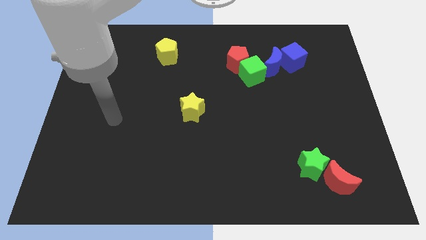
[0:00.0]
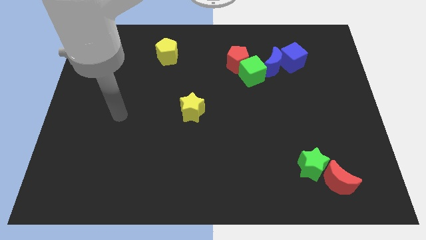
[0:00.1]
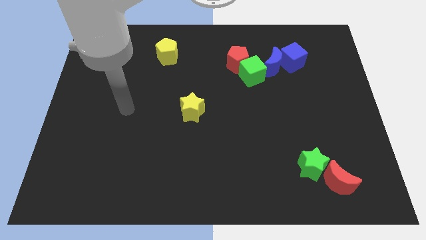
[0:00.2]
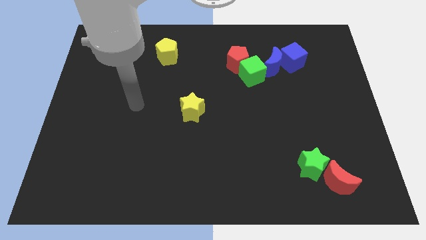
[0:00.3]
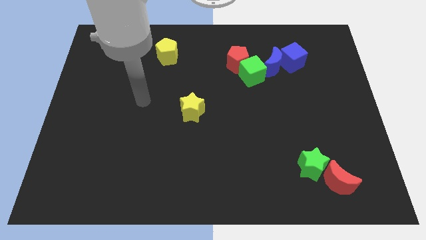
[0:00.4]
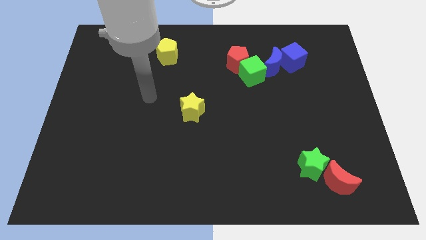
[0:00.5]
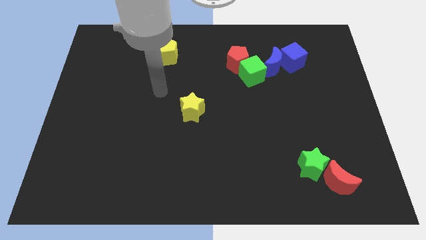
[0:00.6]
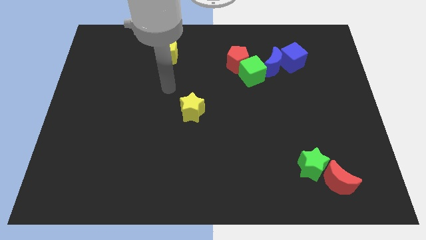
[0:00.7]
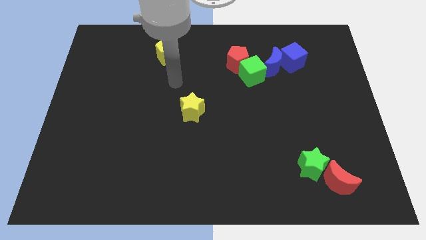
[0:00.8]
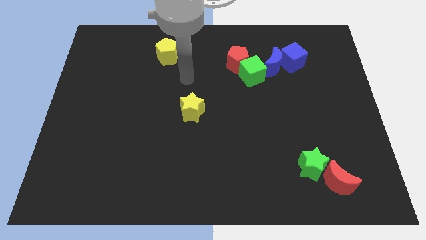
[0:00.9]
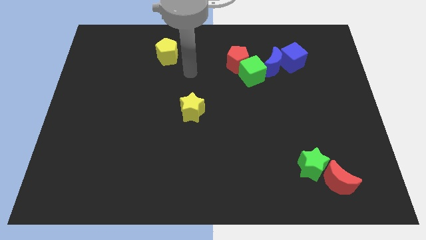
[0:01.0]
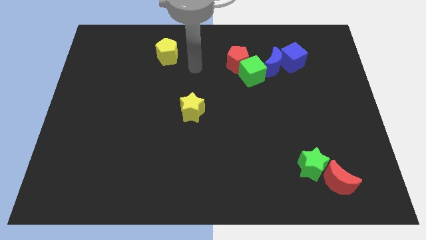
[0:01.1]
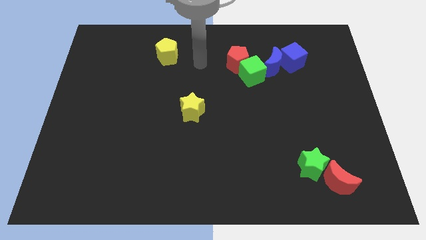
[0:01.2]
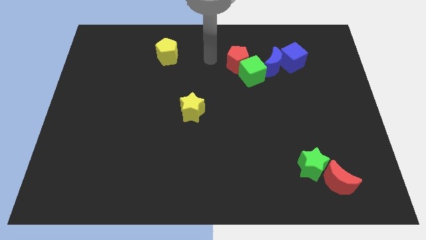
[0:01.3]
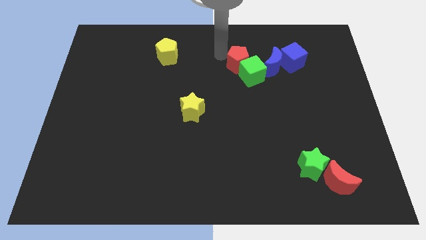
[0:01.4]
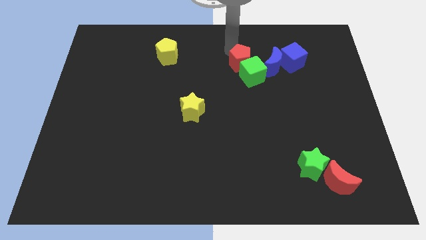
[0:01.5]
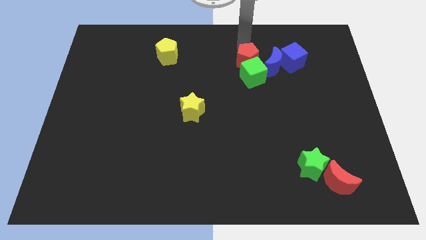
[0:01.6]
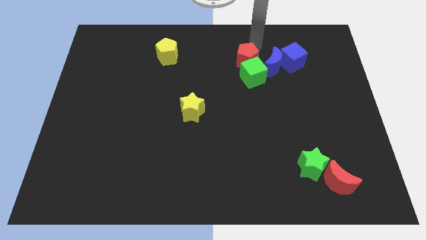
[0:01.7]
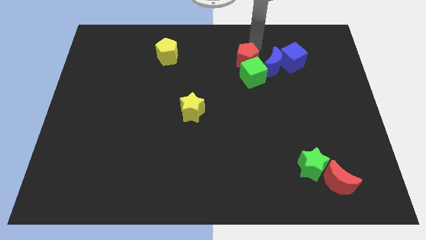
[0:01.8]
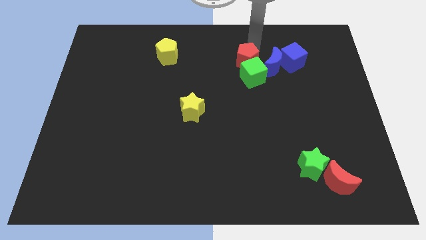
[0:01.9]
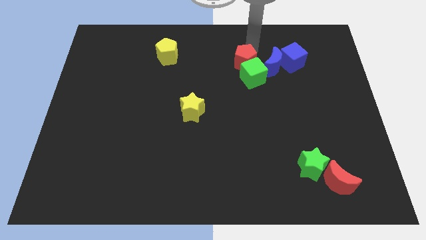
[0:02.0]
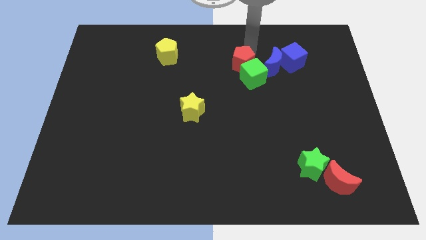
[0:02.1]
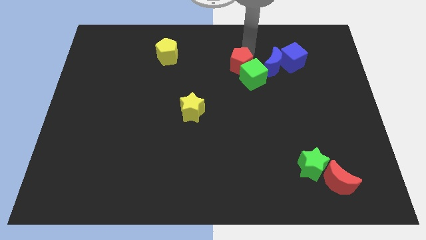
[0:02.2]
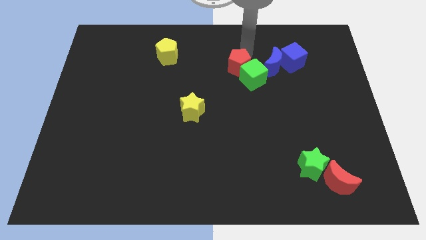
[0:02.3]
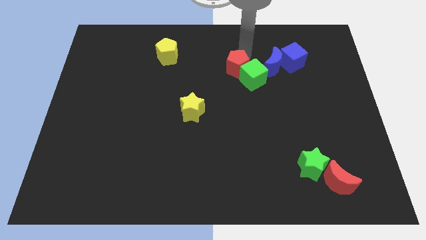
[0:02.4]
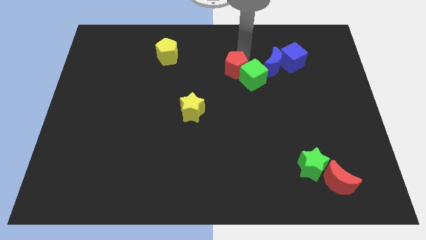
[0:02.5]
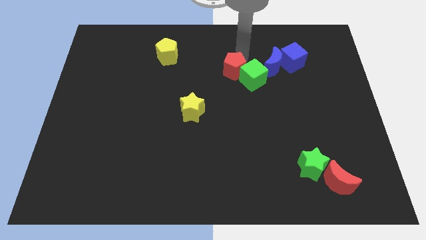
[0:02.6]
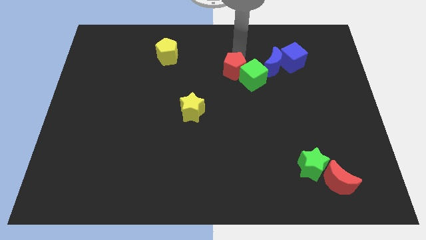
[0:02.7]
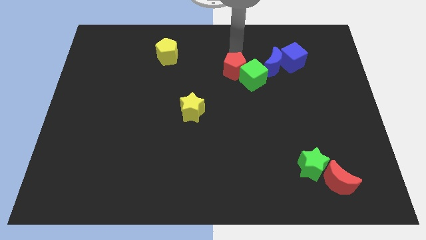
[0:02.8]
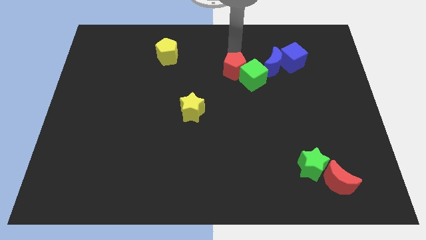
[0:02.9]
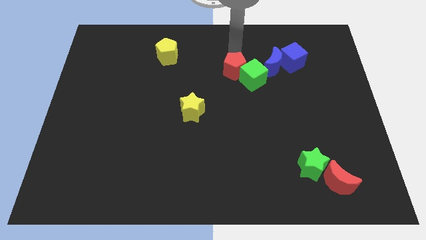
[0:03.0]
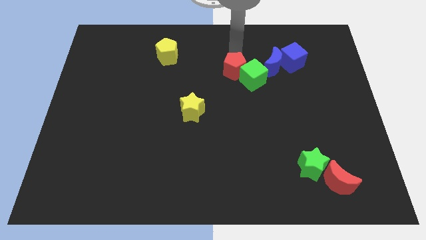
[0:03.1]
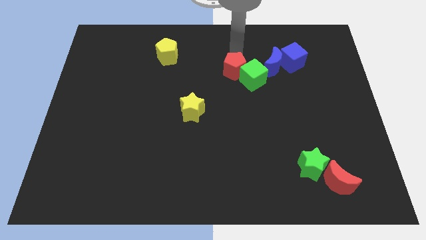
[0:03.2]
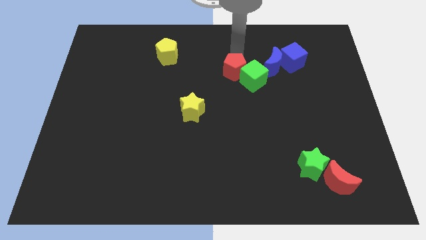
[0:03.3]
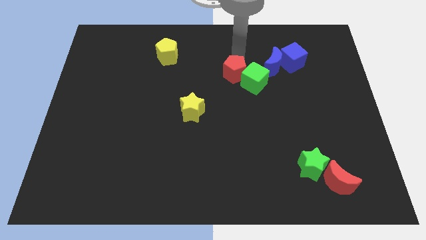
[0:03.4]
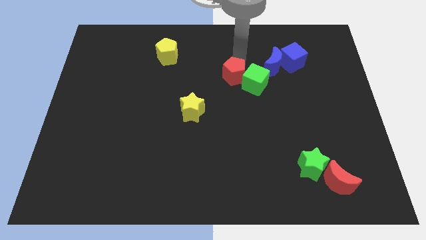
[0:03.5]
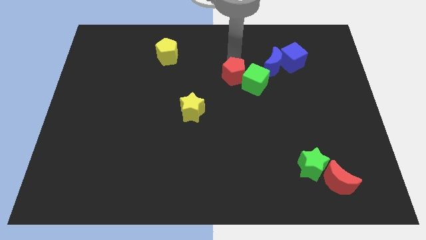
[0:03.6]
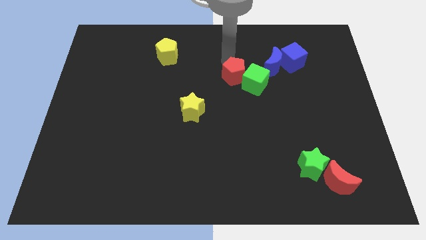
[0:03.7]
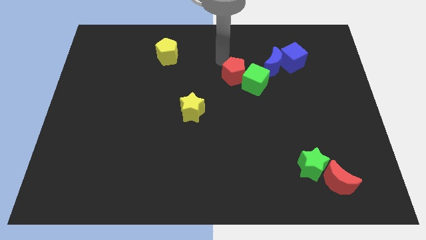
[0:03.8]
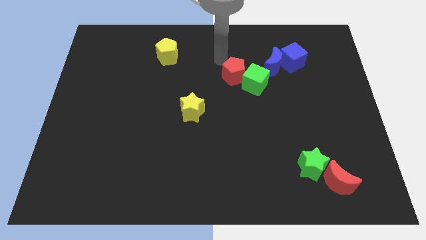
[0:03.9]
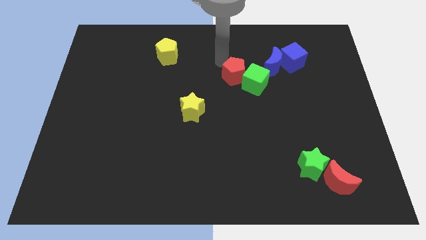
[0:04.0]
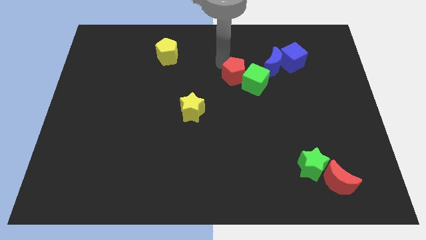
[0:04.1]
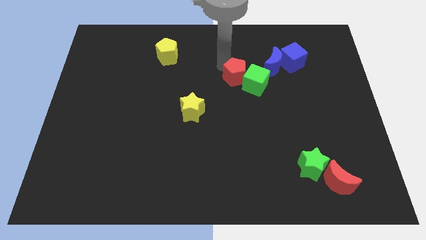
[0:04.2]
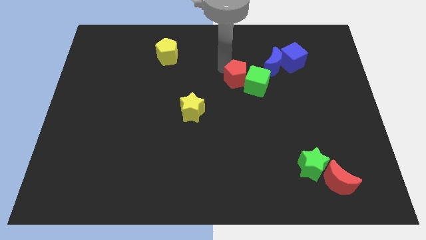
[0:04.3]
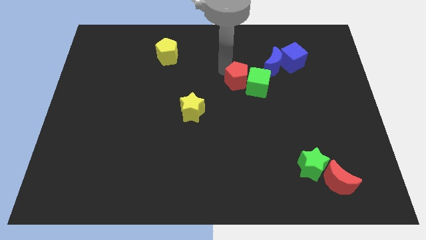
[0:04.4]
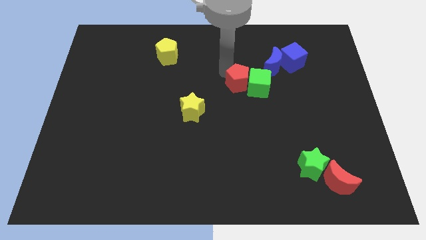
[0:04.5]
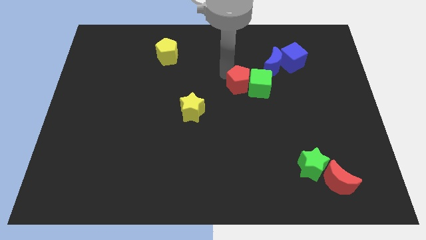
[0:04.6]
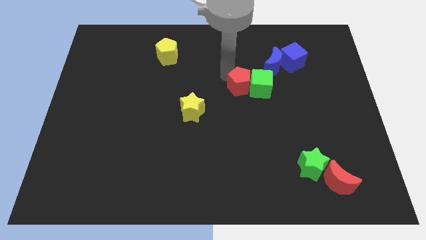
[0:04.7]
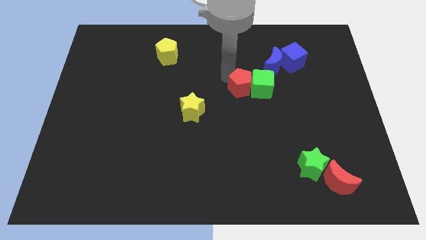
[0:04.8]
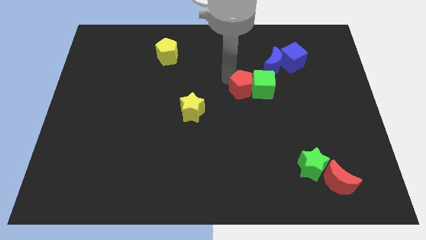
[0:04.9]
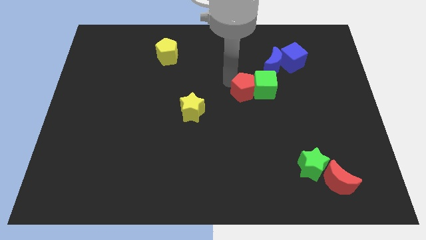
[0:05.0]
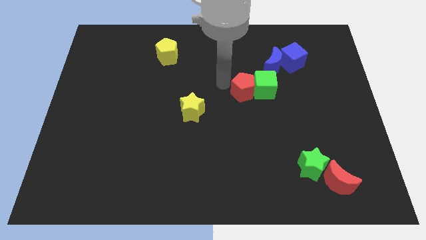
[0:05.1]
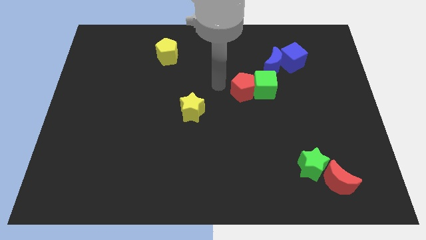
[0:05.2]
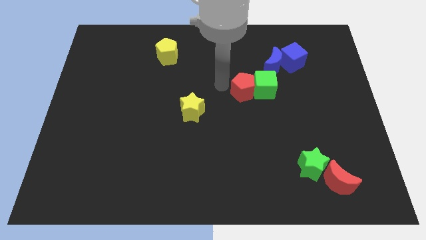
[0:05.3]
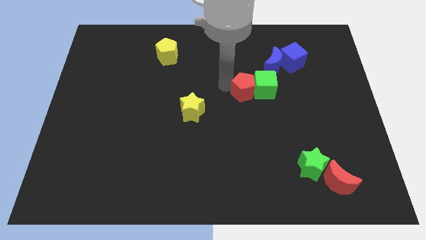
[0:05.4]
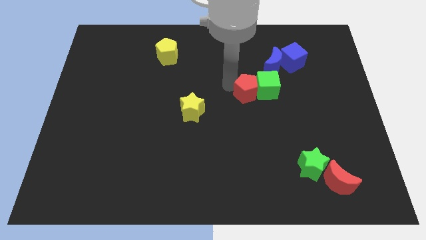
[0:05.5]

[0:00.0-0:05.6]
slightly move the red pentagon downwards and then to the right

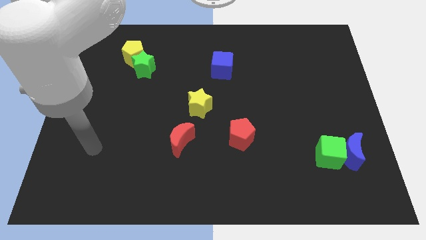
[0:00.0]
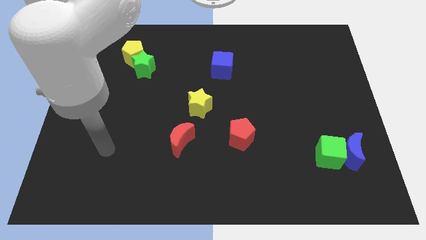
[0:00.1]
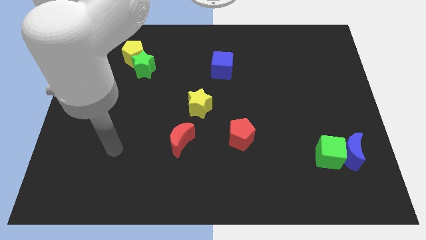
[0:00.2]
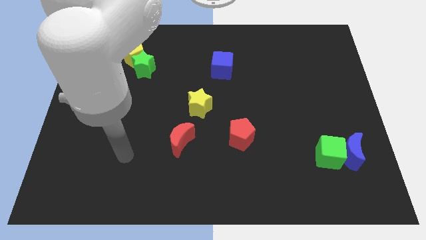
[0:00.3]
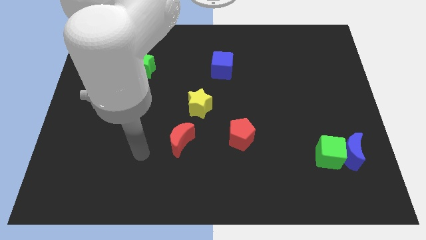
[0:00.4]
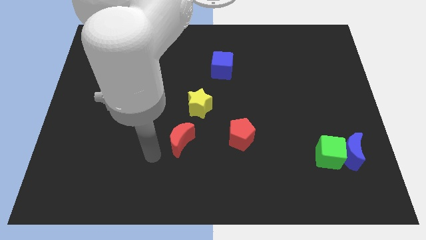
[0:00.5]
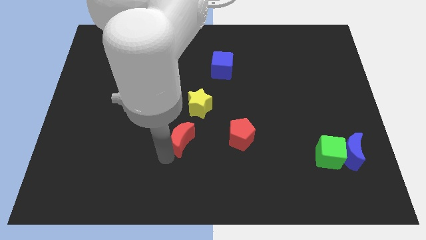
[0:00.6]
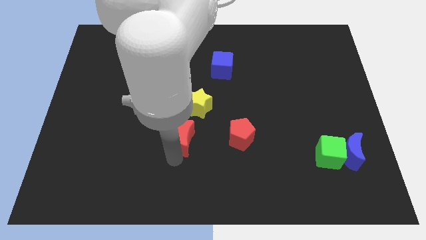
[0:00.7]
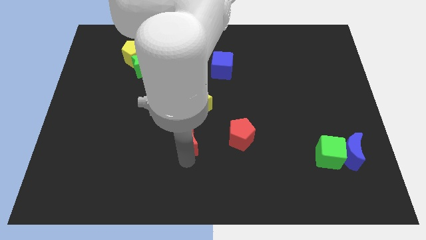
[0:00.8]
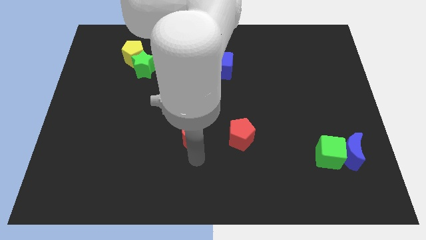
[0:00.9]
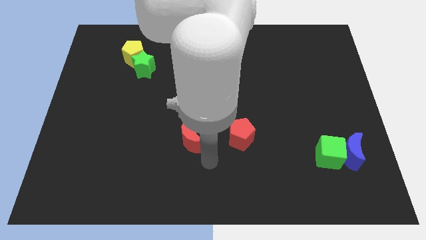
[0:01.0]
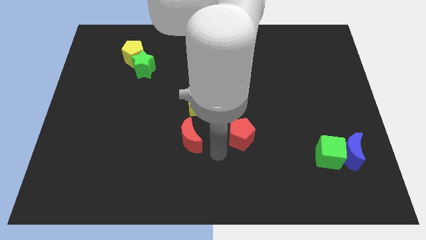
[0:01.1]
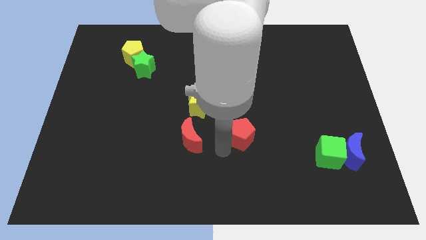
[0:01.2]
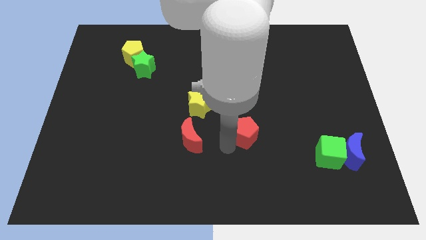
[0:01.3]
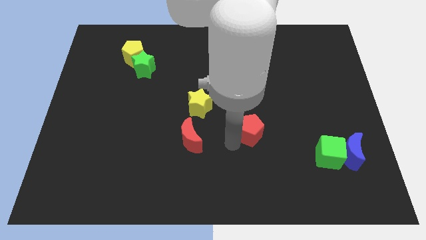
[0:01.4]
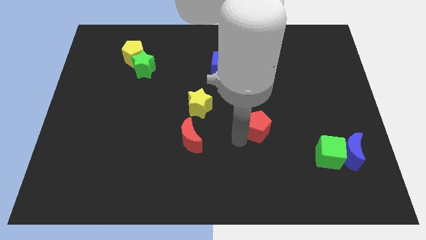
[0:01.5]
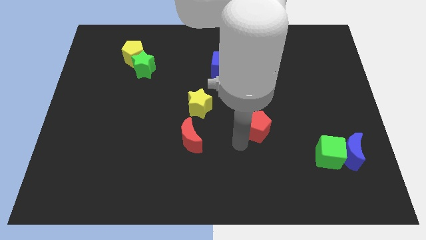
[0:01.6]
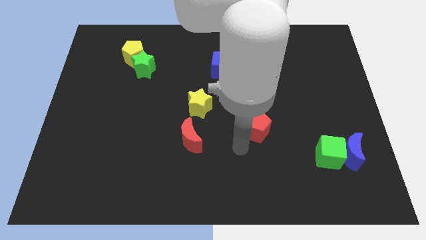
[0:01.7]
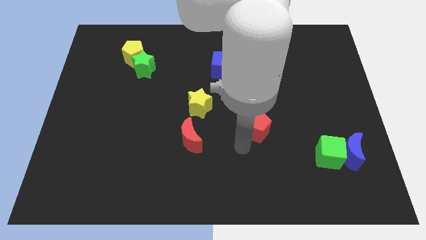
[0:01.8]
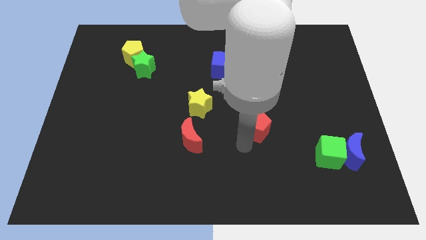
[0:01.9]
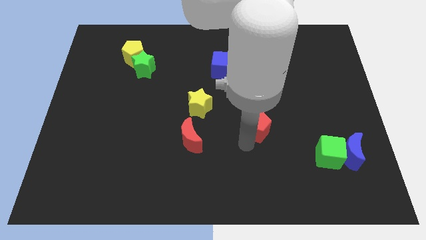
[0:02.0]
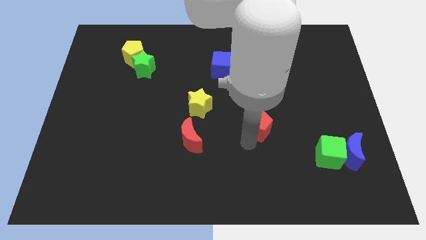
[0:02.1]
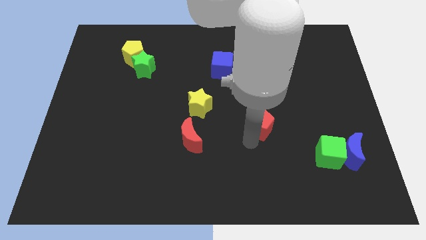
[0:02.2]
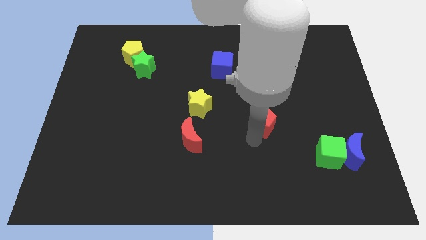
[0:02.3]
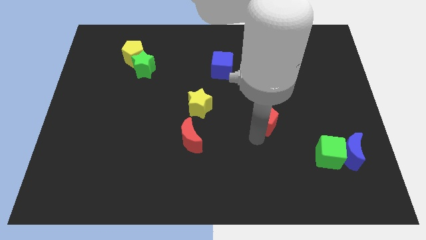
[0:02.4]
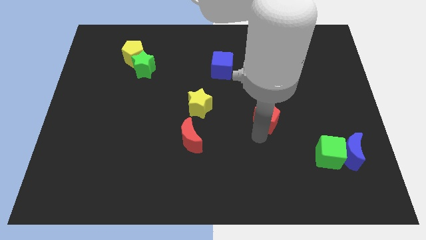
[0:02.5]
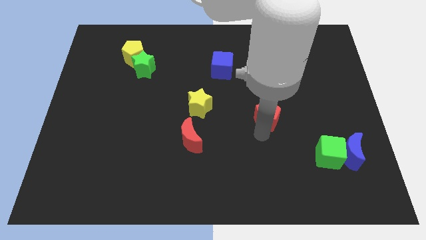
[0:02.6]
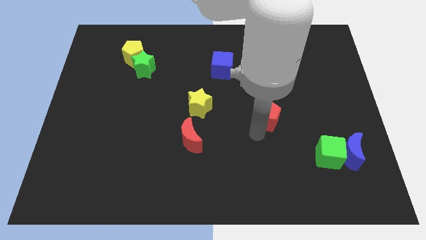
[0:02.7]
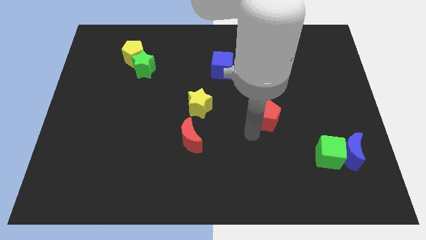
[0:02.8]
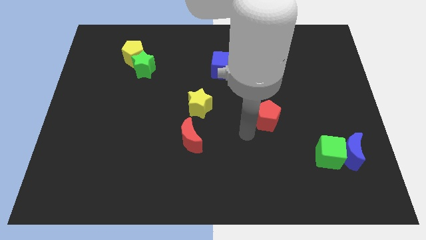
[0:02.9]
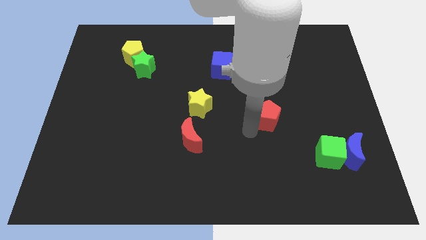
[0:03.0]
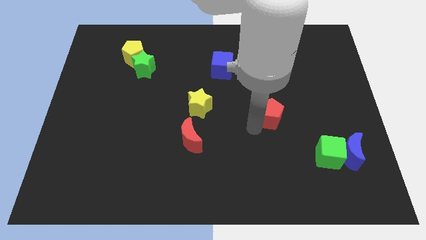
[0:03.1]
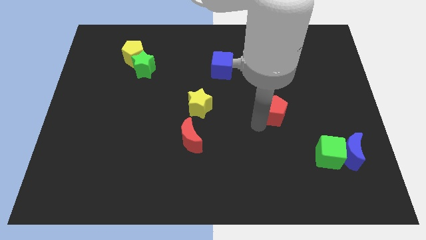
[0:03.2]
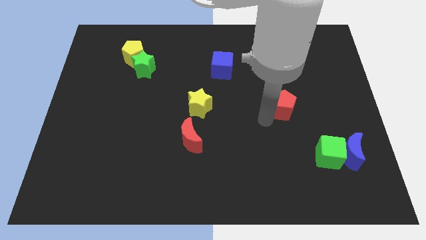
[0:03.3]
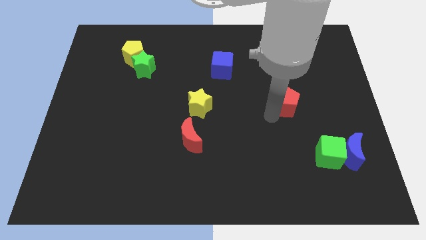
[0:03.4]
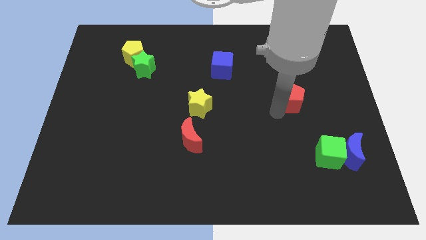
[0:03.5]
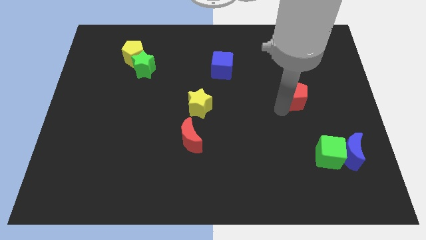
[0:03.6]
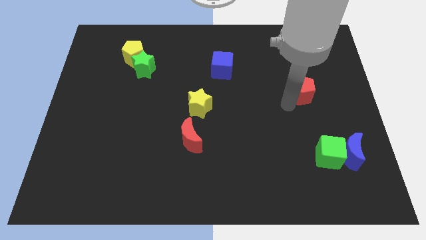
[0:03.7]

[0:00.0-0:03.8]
move the red pentagon up and right
